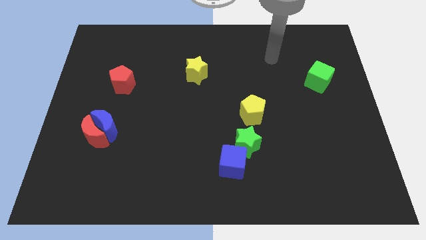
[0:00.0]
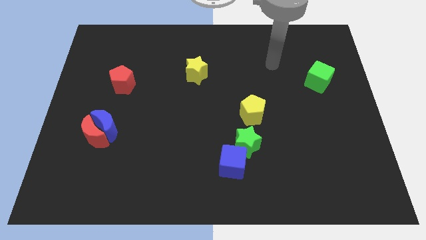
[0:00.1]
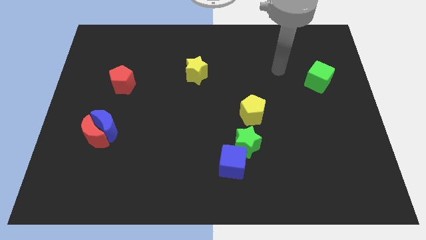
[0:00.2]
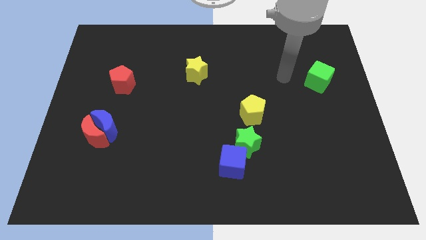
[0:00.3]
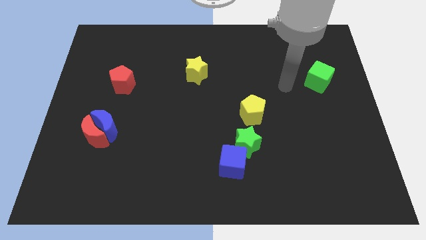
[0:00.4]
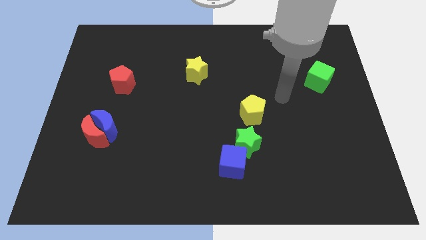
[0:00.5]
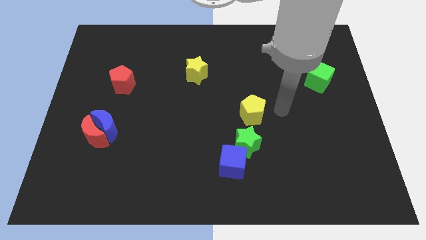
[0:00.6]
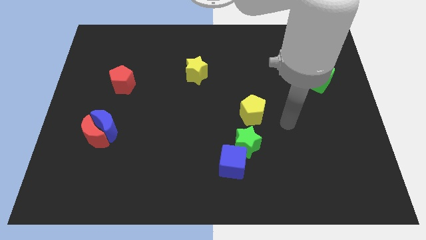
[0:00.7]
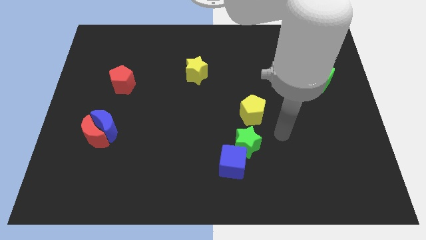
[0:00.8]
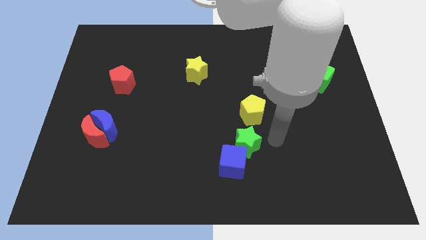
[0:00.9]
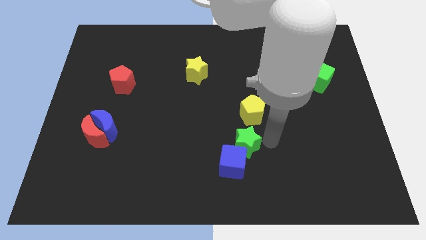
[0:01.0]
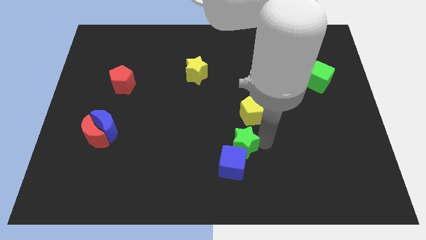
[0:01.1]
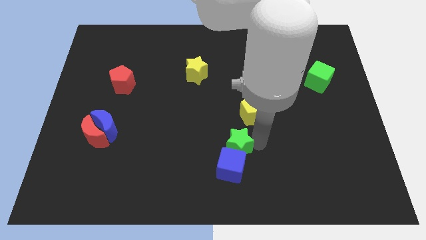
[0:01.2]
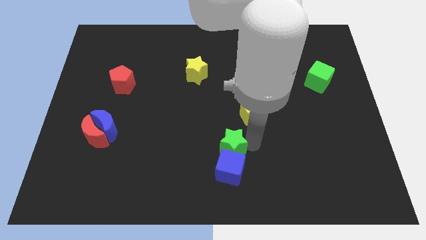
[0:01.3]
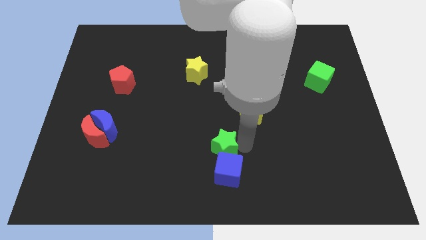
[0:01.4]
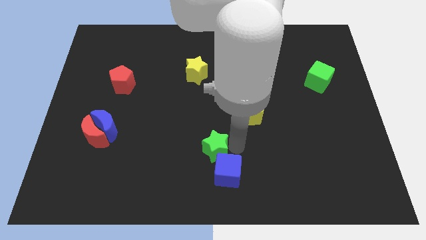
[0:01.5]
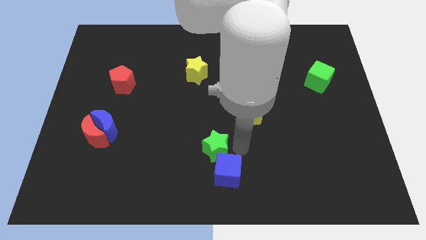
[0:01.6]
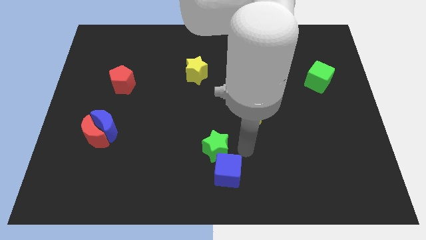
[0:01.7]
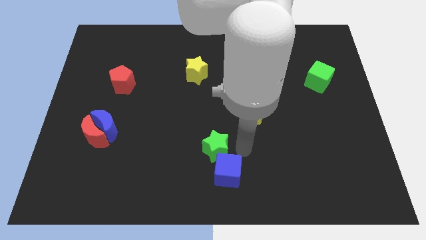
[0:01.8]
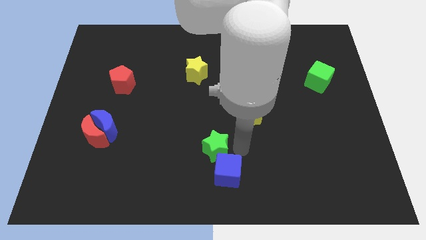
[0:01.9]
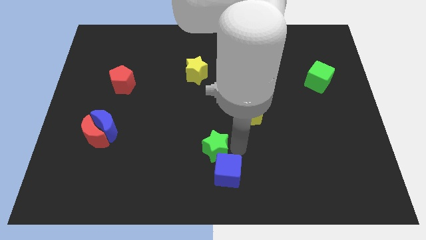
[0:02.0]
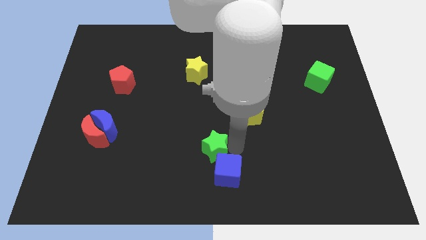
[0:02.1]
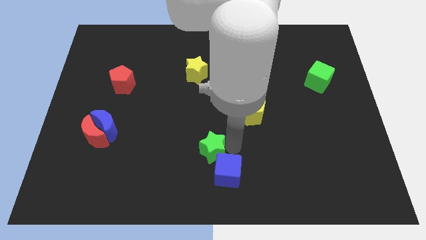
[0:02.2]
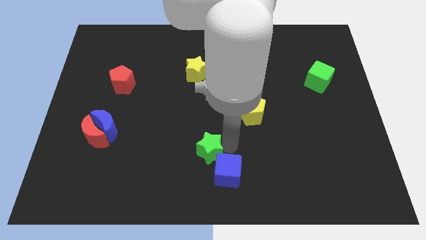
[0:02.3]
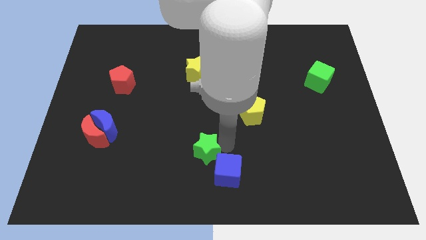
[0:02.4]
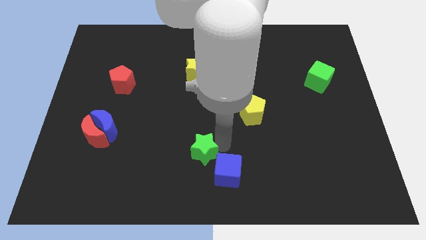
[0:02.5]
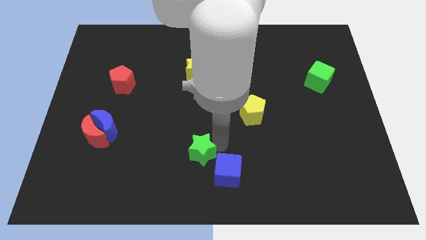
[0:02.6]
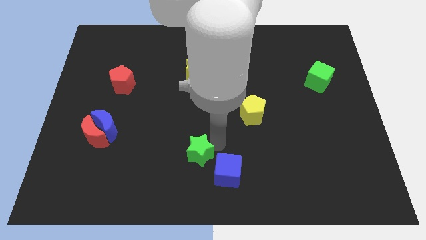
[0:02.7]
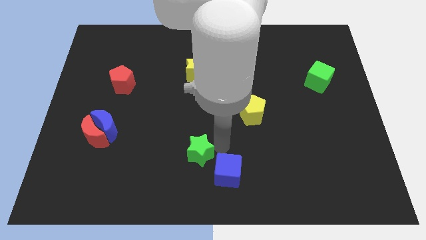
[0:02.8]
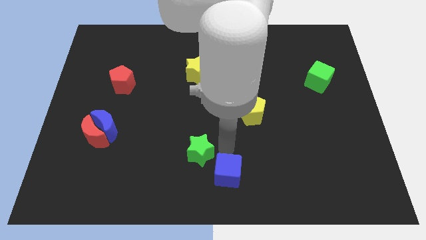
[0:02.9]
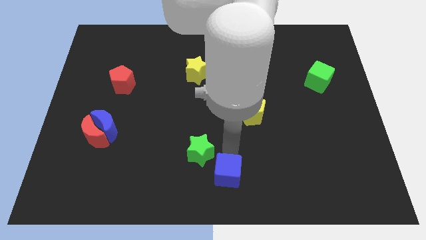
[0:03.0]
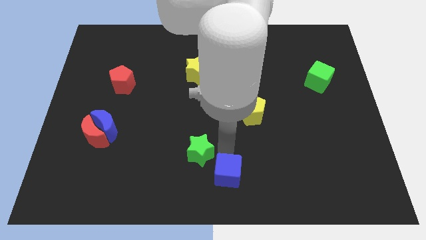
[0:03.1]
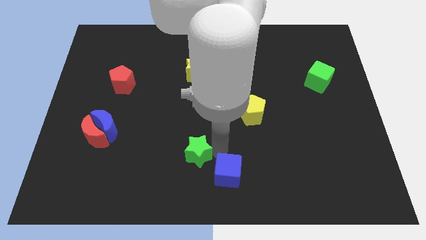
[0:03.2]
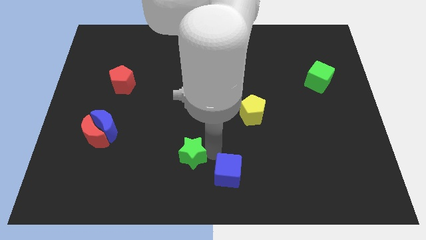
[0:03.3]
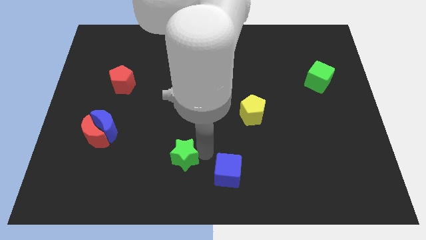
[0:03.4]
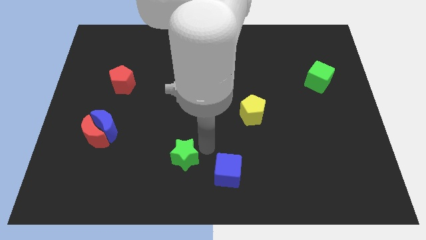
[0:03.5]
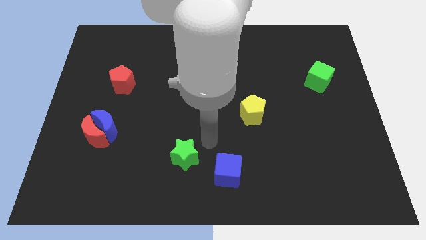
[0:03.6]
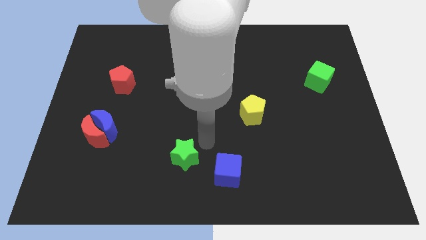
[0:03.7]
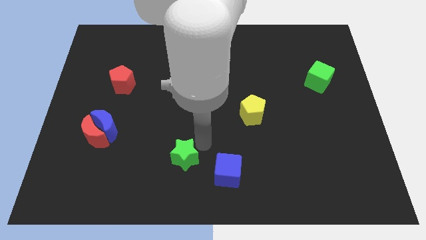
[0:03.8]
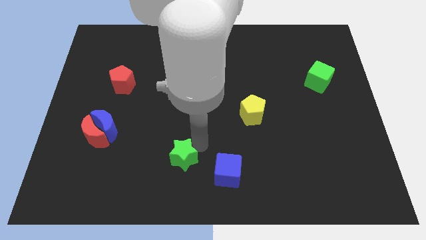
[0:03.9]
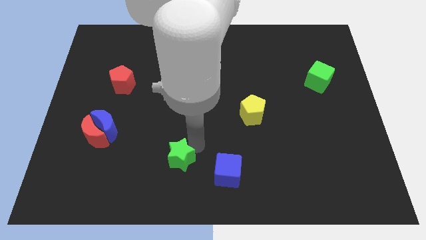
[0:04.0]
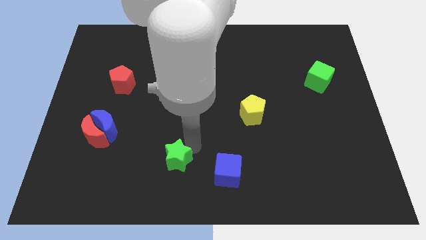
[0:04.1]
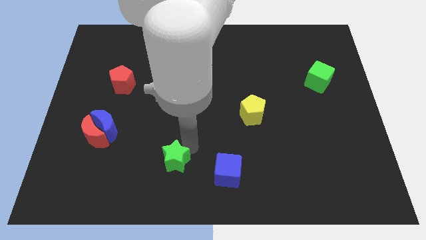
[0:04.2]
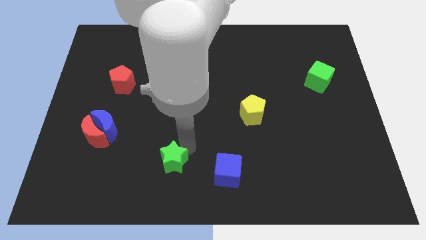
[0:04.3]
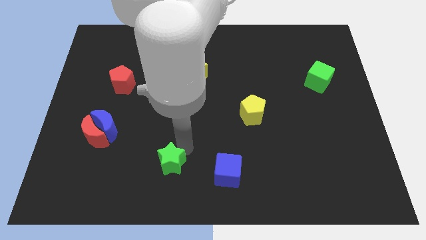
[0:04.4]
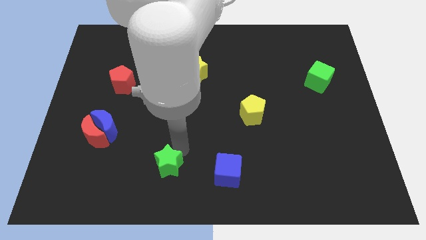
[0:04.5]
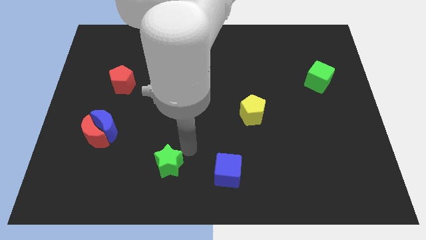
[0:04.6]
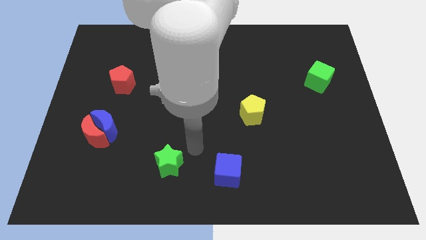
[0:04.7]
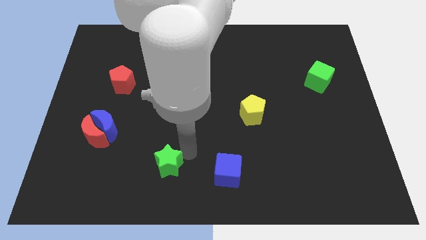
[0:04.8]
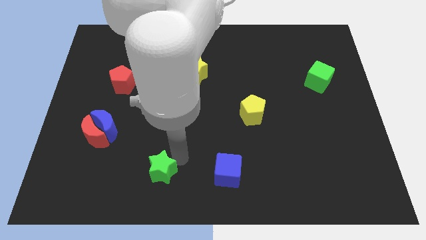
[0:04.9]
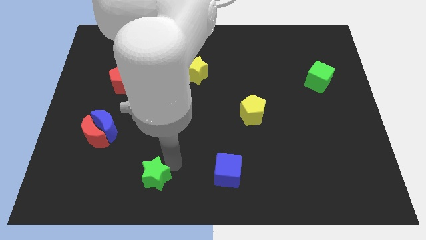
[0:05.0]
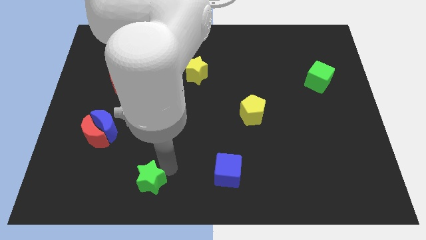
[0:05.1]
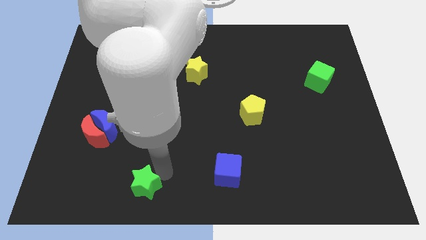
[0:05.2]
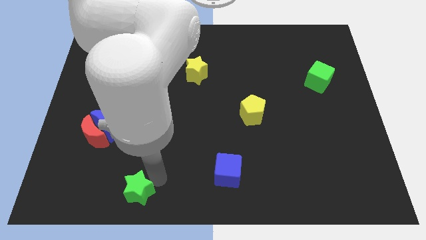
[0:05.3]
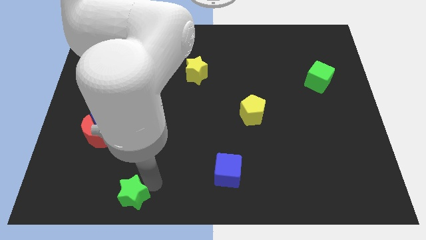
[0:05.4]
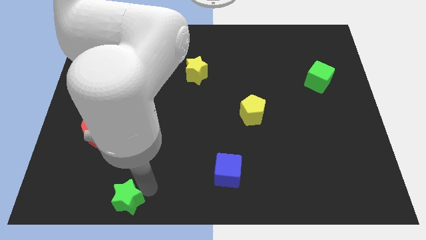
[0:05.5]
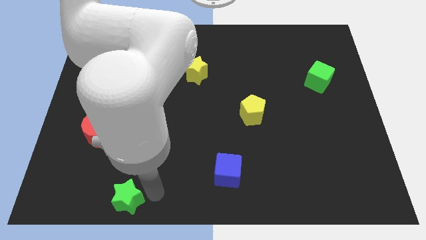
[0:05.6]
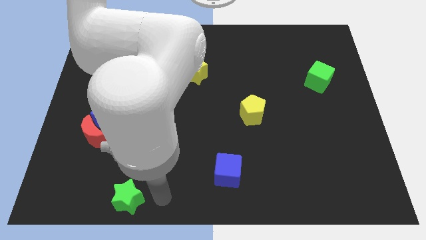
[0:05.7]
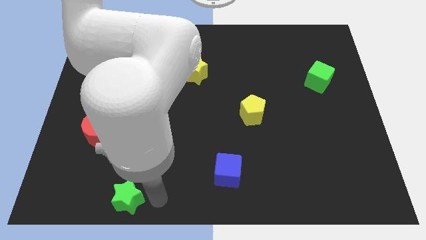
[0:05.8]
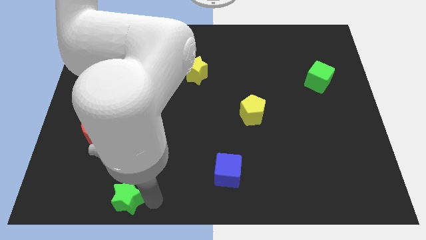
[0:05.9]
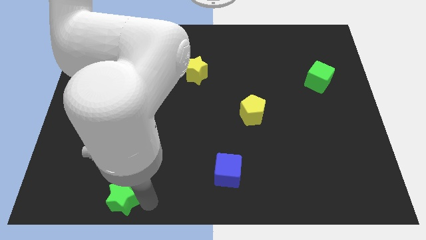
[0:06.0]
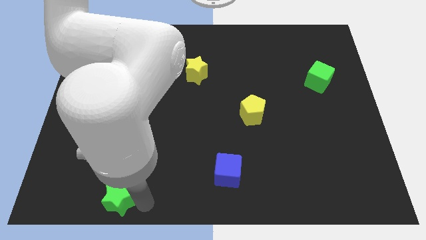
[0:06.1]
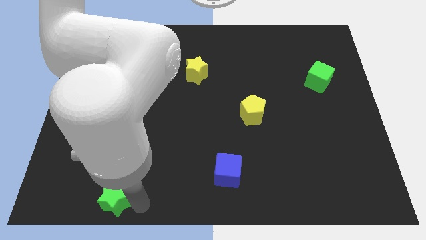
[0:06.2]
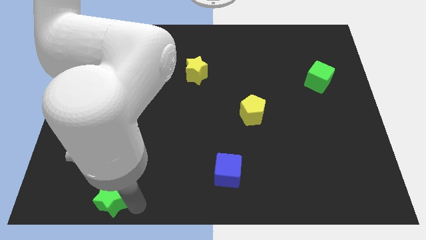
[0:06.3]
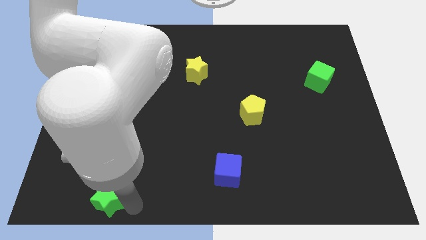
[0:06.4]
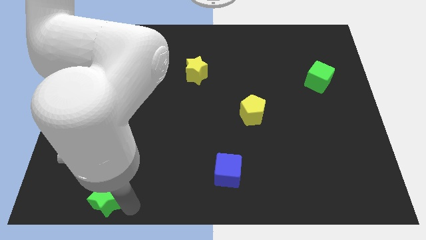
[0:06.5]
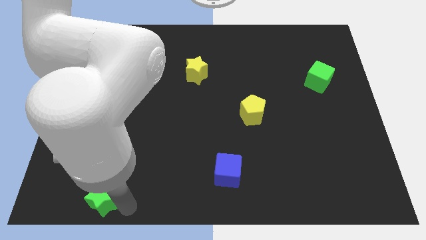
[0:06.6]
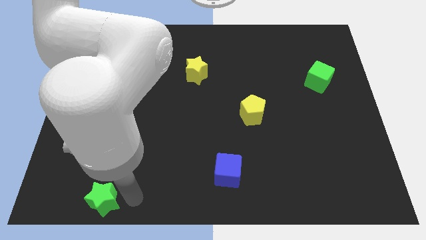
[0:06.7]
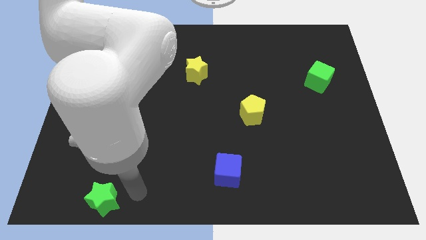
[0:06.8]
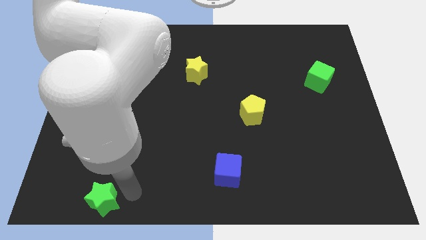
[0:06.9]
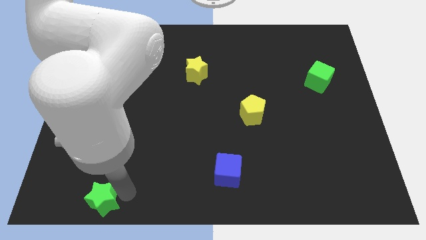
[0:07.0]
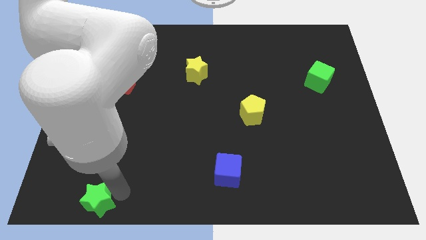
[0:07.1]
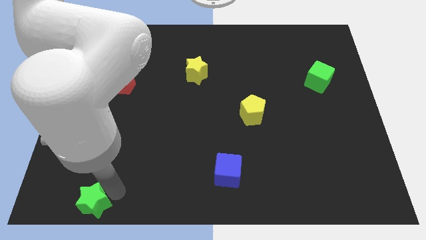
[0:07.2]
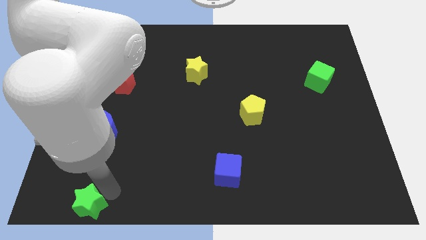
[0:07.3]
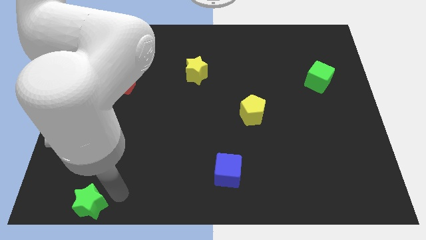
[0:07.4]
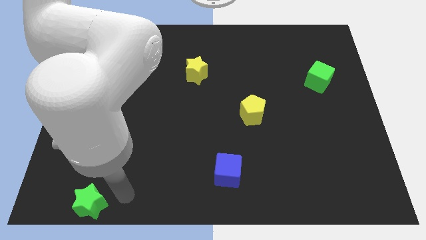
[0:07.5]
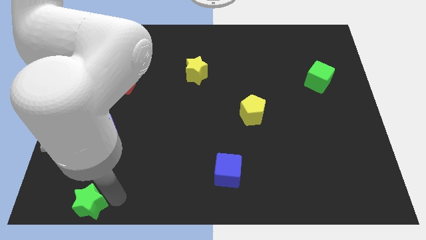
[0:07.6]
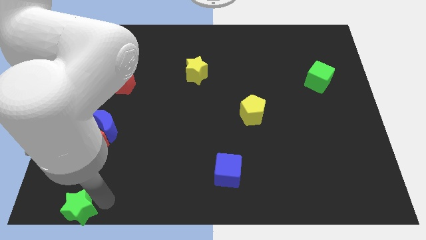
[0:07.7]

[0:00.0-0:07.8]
put the green star to the bottom left corner
